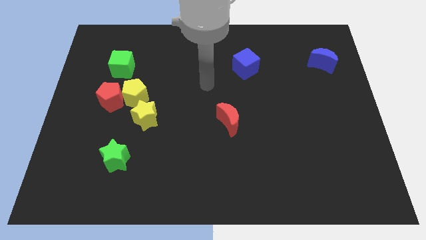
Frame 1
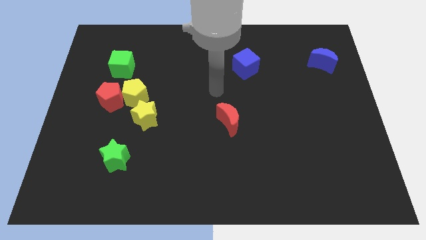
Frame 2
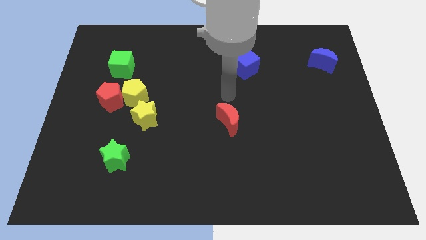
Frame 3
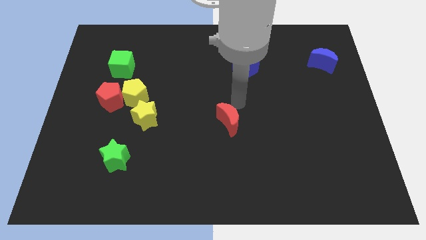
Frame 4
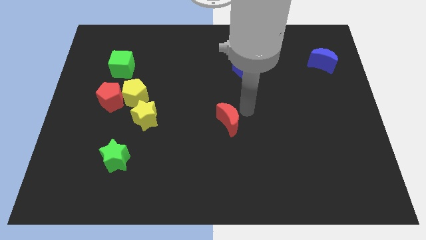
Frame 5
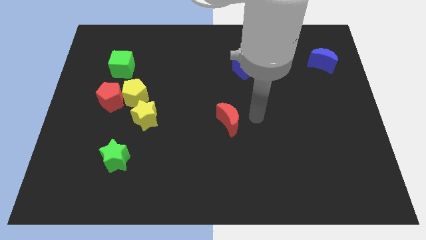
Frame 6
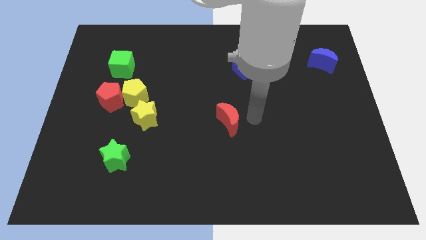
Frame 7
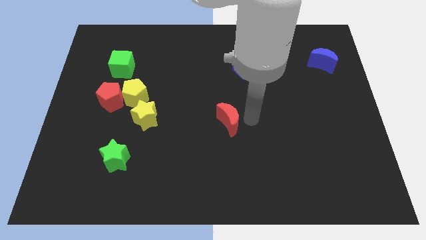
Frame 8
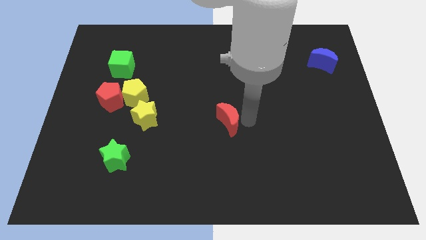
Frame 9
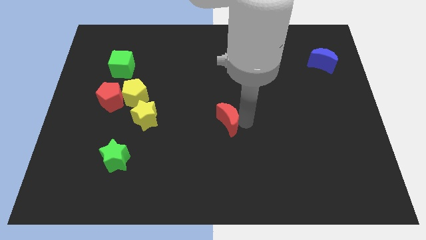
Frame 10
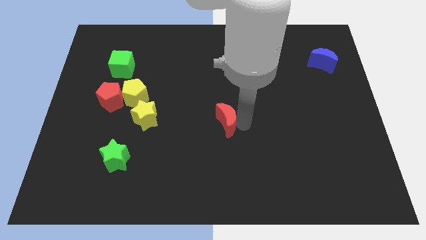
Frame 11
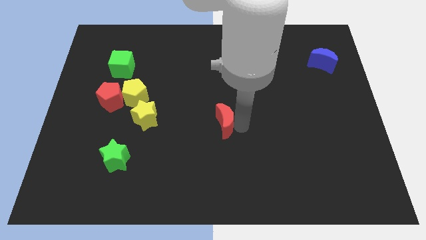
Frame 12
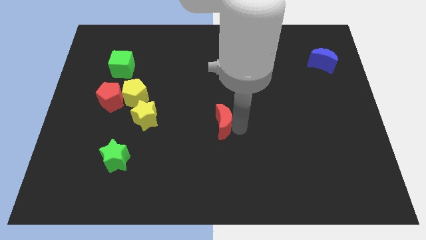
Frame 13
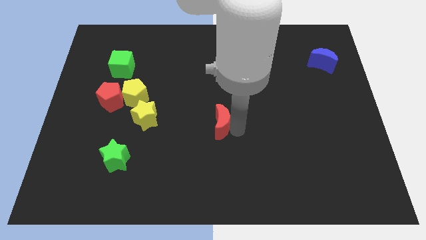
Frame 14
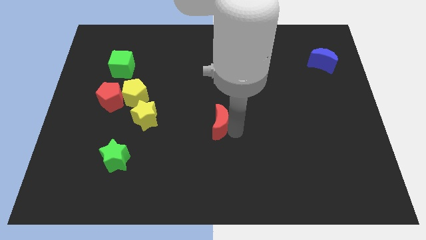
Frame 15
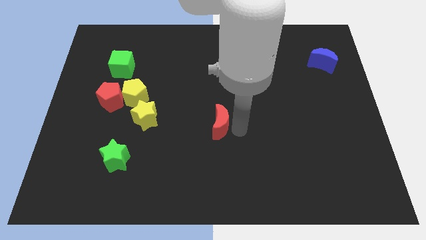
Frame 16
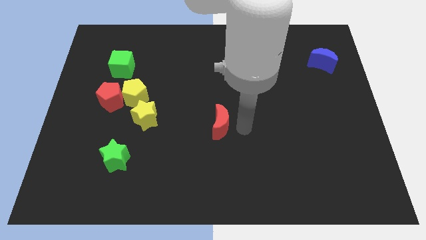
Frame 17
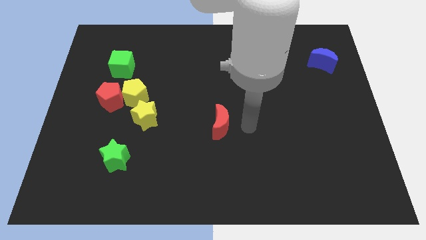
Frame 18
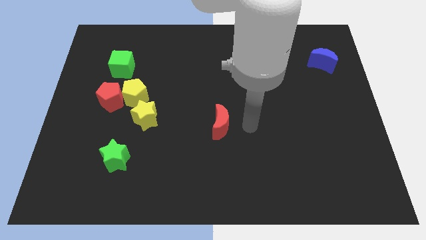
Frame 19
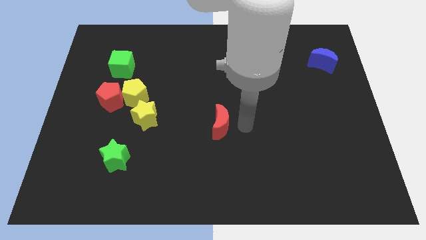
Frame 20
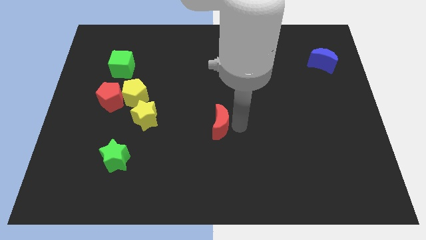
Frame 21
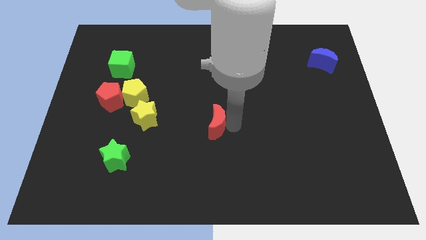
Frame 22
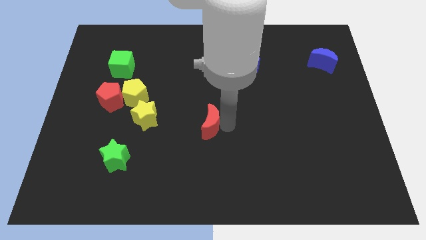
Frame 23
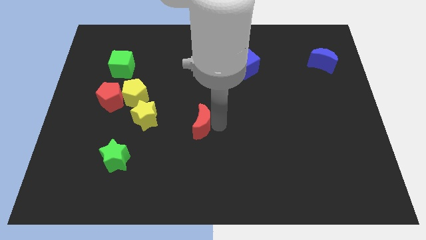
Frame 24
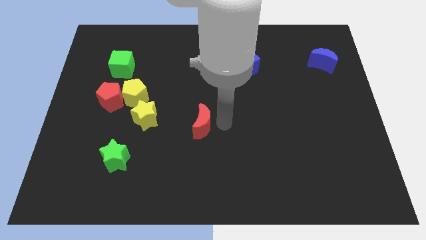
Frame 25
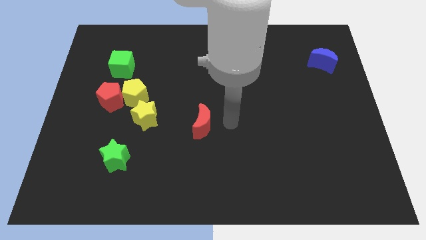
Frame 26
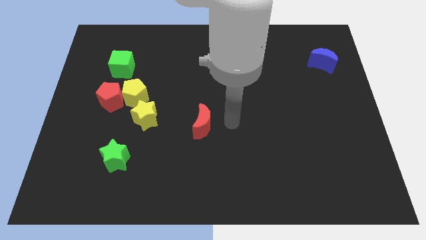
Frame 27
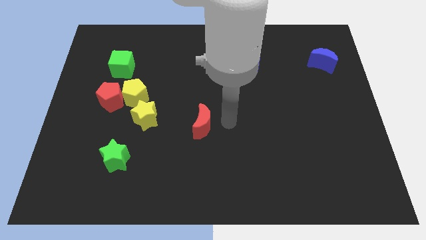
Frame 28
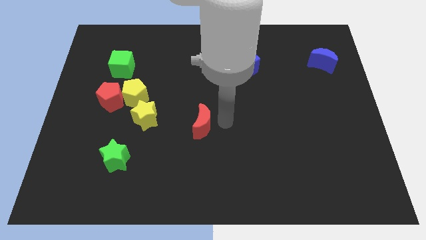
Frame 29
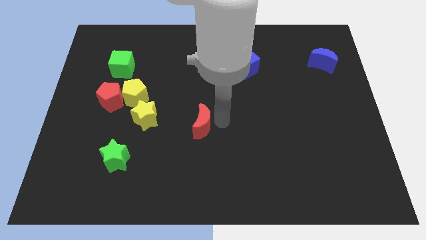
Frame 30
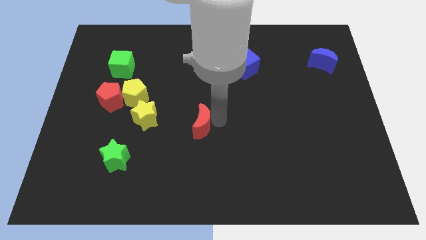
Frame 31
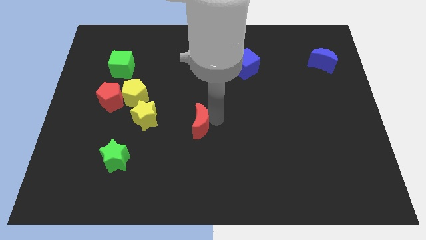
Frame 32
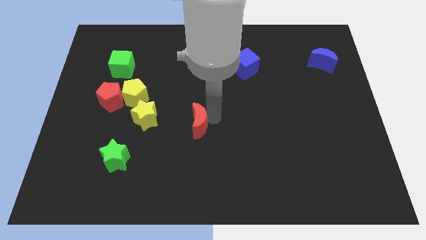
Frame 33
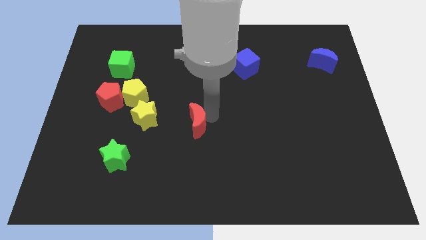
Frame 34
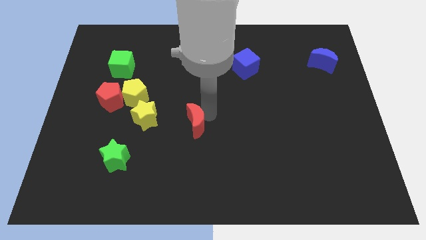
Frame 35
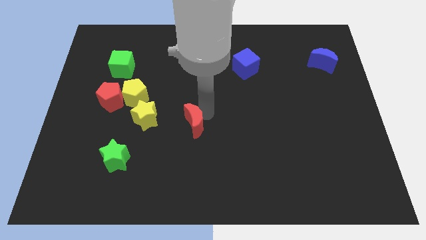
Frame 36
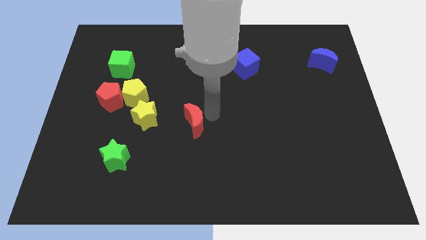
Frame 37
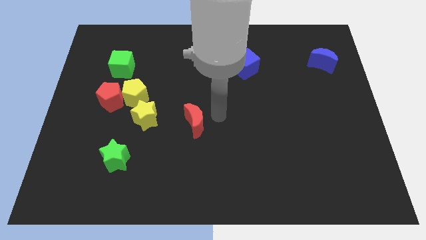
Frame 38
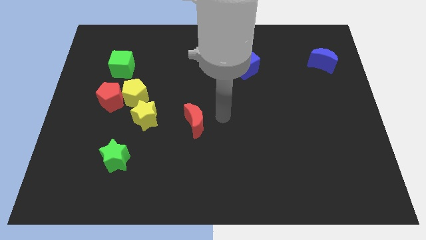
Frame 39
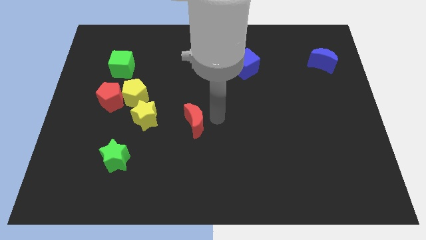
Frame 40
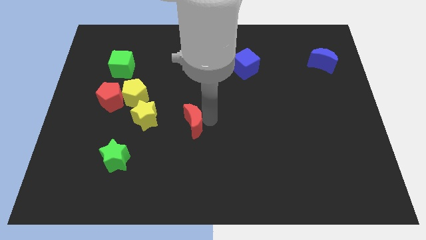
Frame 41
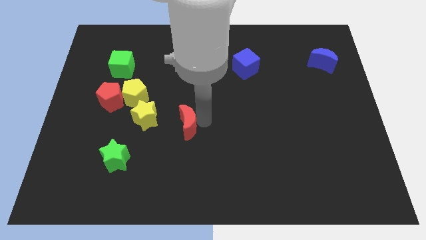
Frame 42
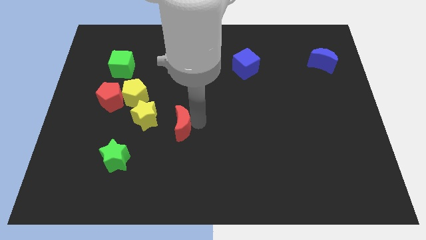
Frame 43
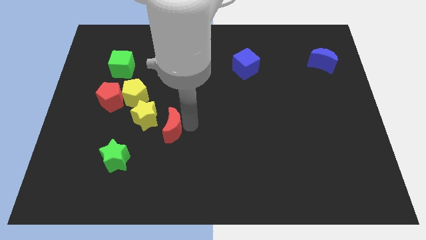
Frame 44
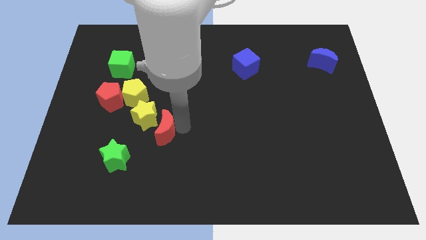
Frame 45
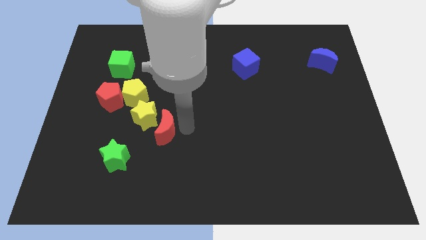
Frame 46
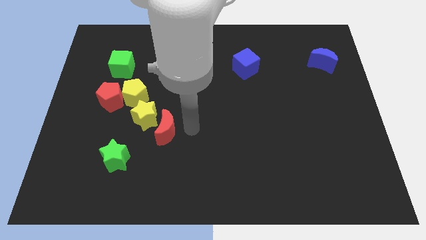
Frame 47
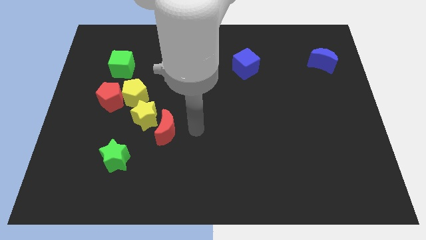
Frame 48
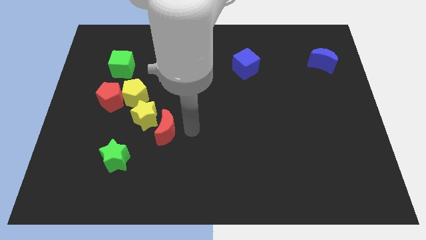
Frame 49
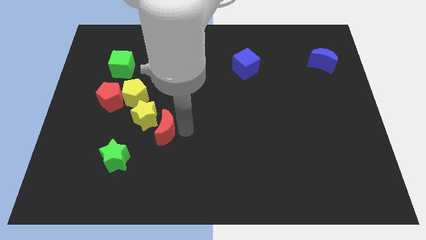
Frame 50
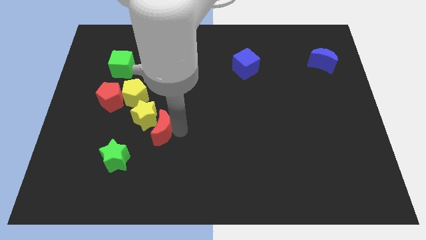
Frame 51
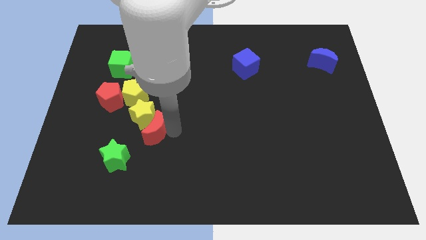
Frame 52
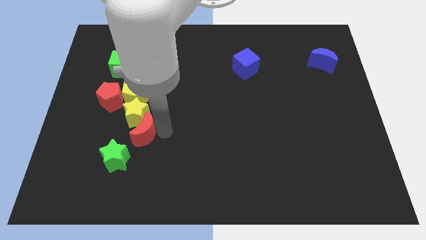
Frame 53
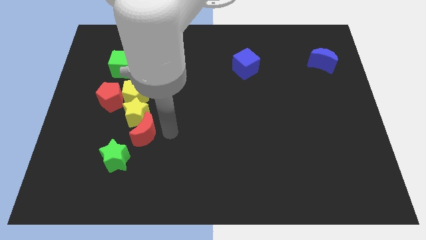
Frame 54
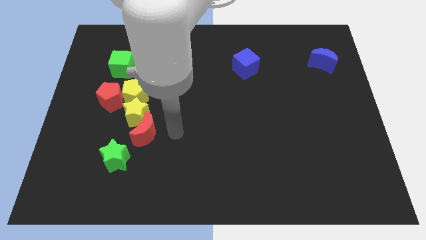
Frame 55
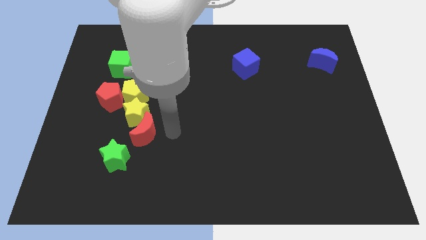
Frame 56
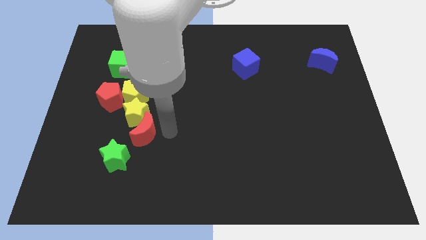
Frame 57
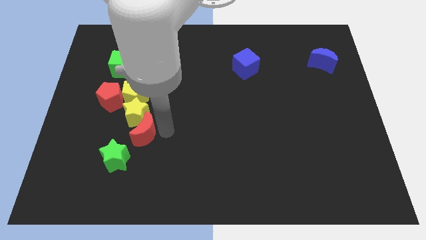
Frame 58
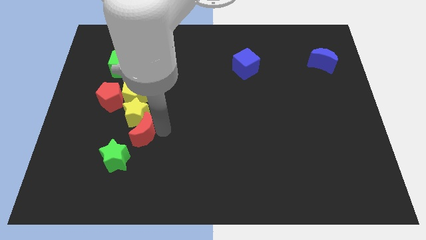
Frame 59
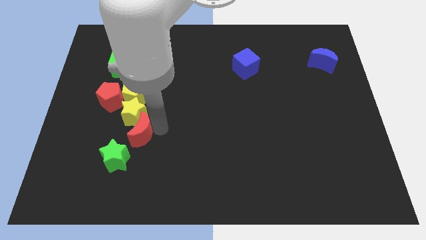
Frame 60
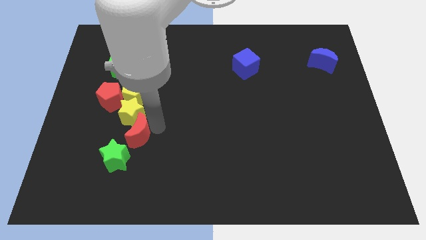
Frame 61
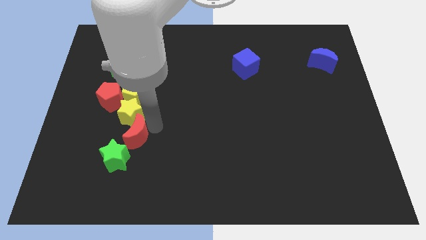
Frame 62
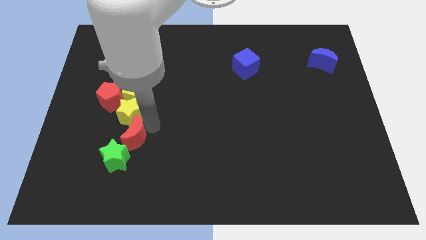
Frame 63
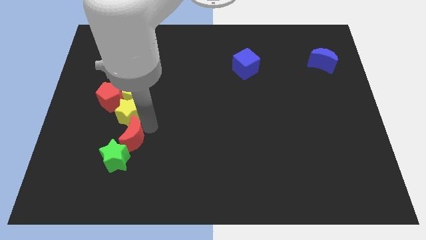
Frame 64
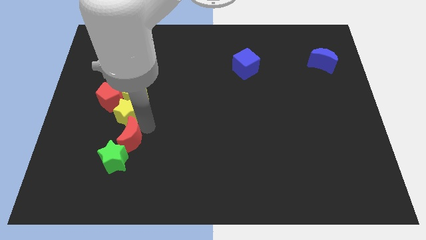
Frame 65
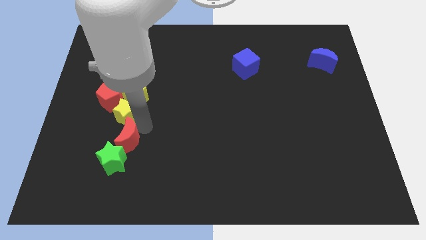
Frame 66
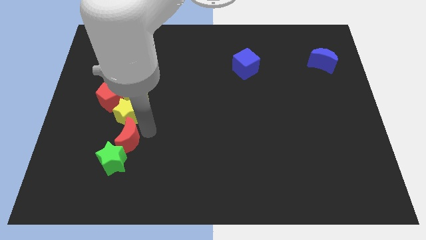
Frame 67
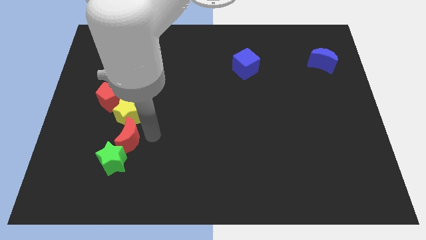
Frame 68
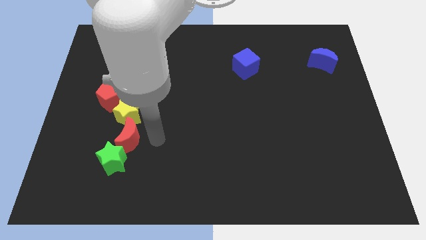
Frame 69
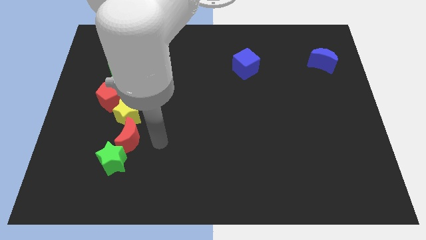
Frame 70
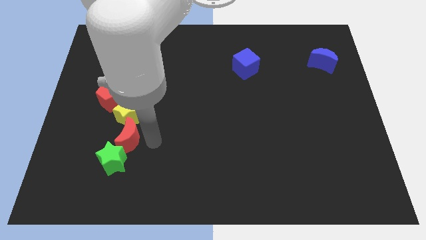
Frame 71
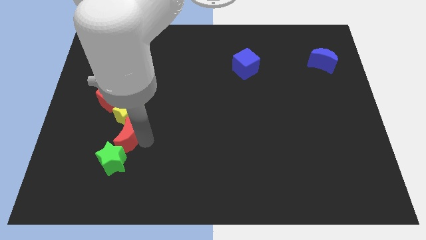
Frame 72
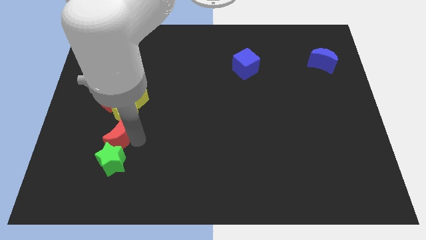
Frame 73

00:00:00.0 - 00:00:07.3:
put the red moon to the bottom side of the red pentagon
